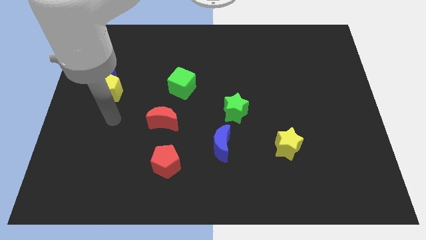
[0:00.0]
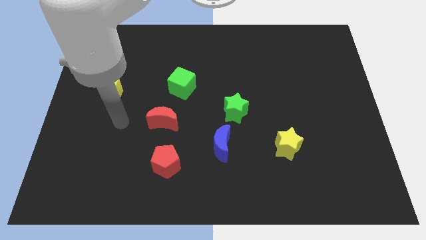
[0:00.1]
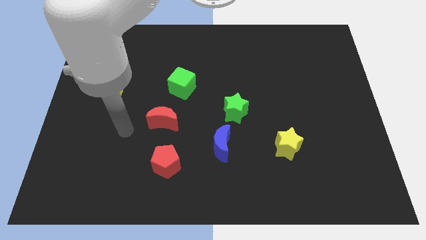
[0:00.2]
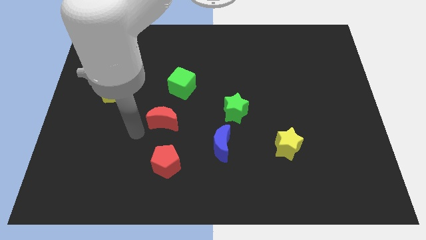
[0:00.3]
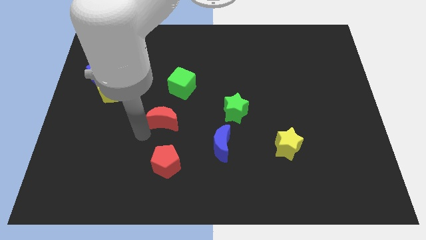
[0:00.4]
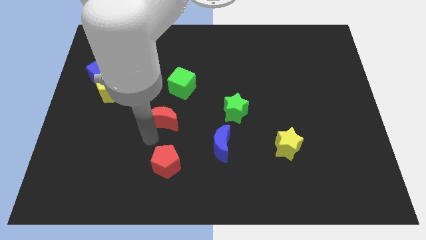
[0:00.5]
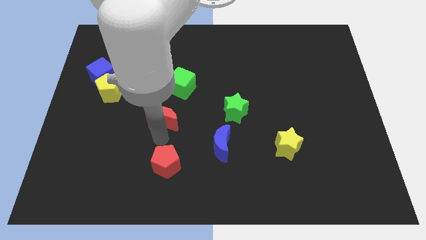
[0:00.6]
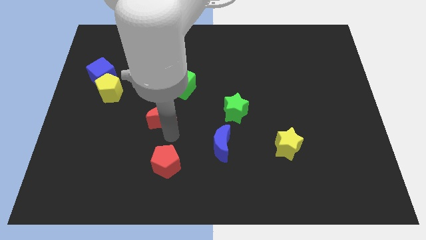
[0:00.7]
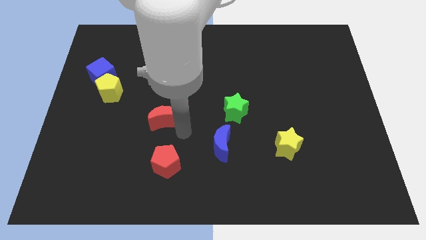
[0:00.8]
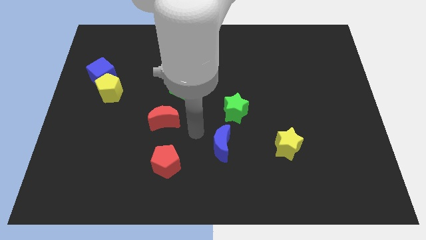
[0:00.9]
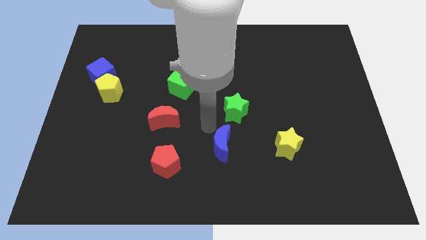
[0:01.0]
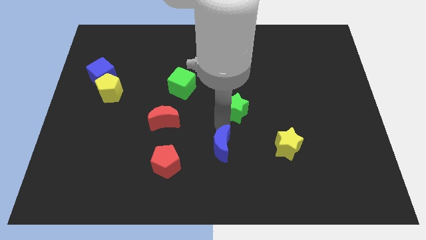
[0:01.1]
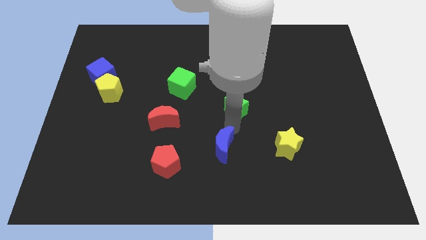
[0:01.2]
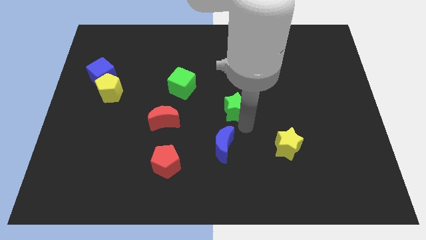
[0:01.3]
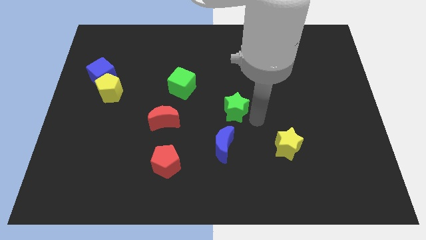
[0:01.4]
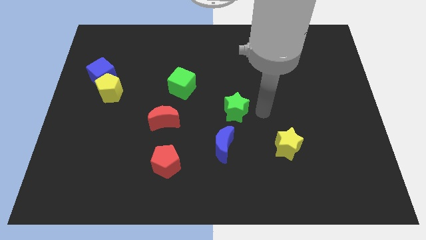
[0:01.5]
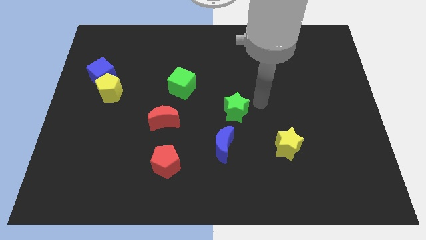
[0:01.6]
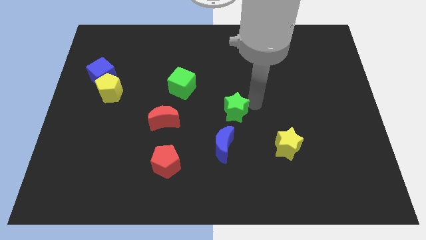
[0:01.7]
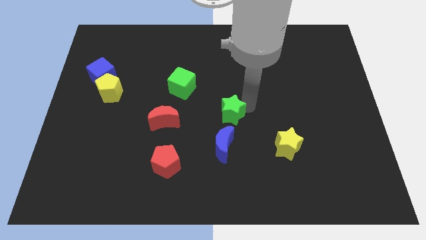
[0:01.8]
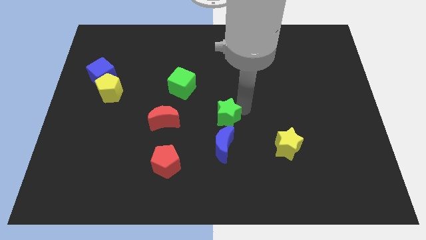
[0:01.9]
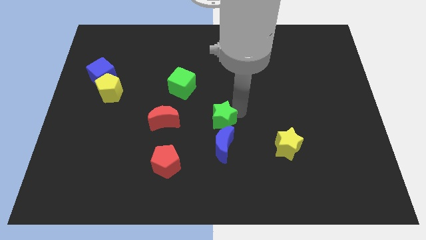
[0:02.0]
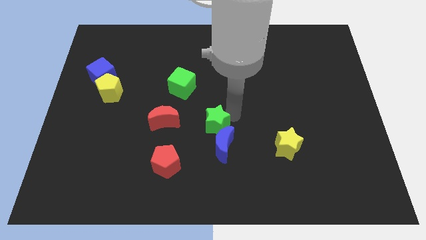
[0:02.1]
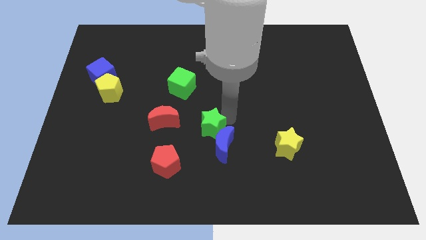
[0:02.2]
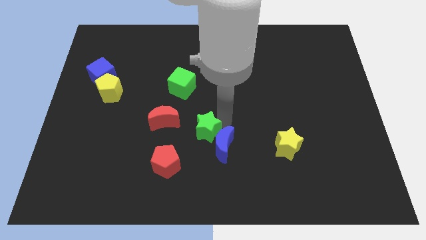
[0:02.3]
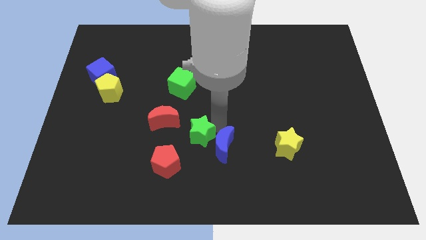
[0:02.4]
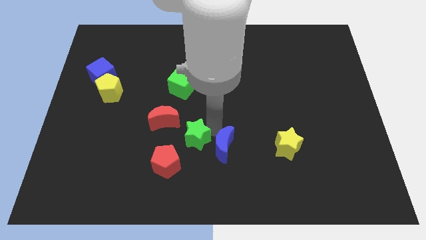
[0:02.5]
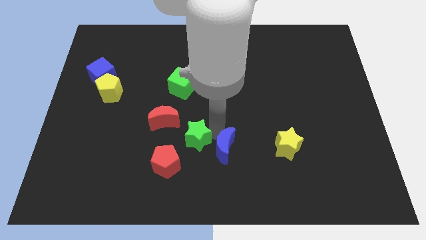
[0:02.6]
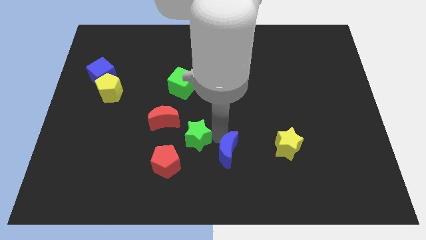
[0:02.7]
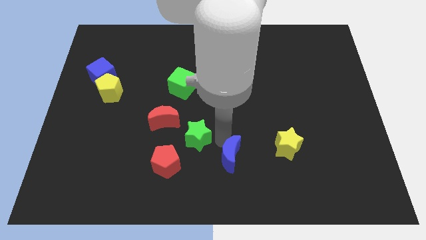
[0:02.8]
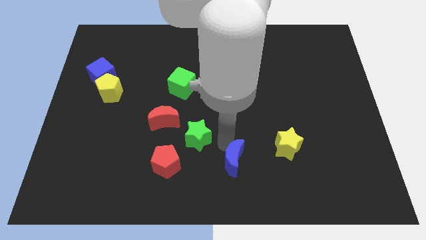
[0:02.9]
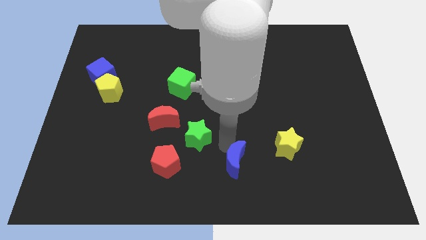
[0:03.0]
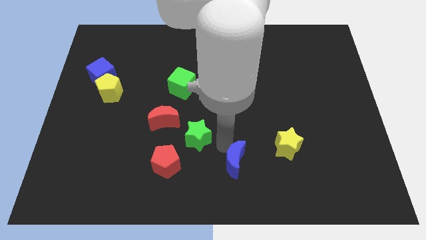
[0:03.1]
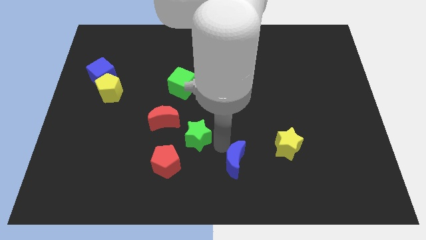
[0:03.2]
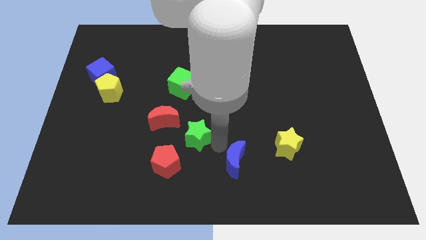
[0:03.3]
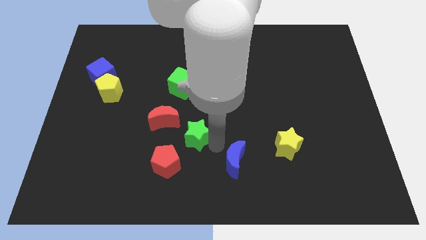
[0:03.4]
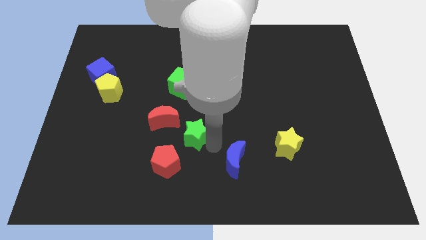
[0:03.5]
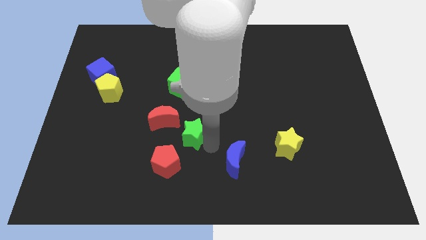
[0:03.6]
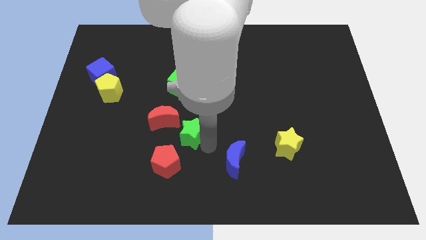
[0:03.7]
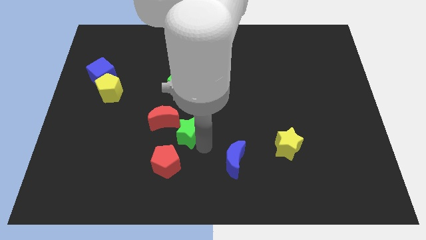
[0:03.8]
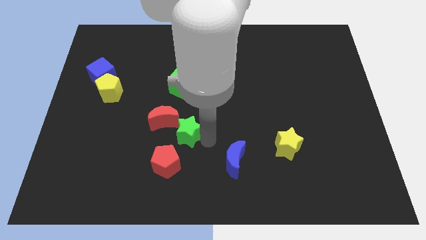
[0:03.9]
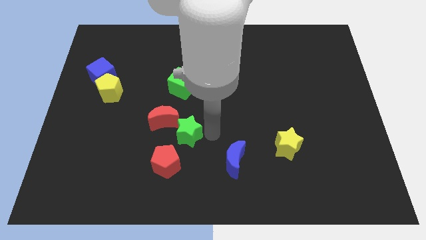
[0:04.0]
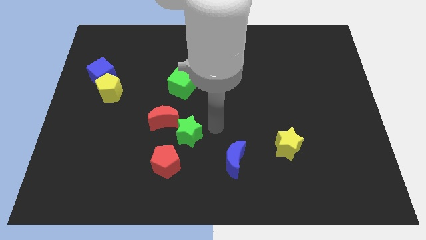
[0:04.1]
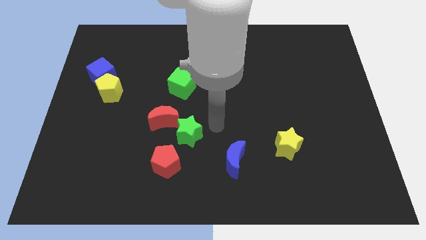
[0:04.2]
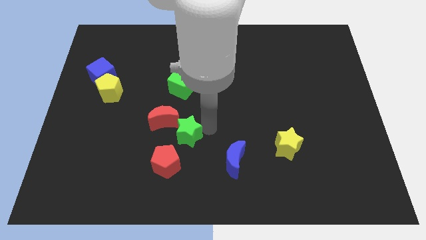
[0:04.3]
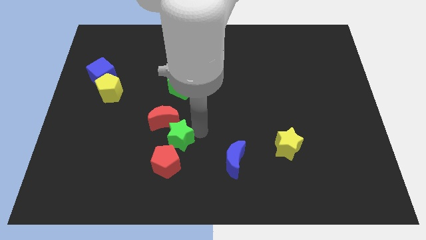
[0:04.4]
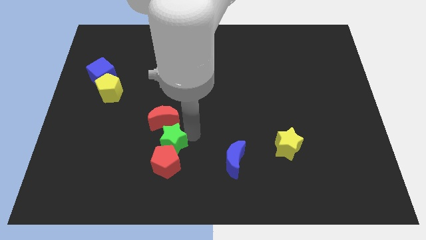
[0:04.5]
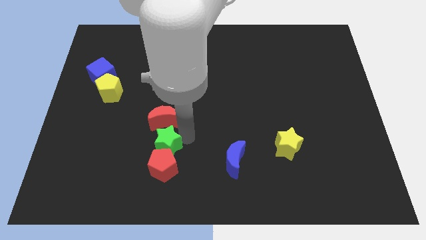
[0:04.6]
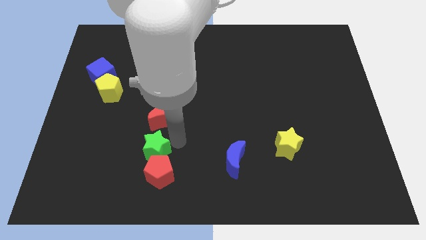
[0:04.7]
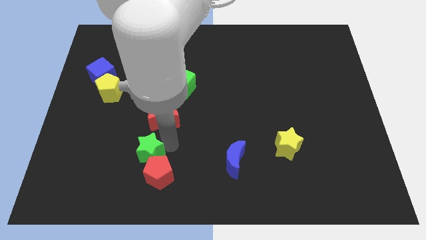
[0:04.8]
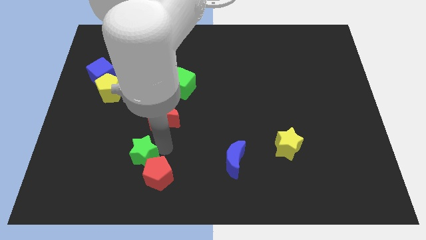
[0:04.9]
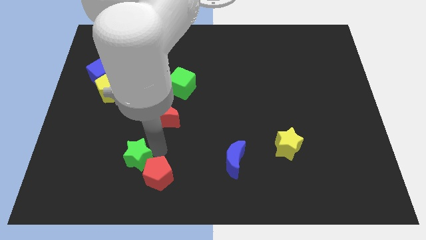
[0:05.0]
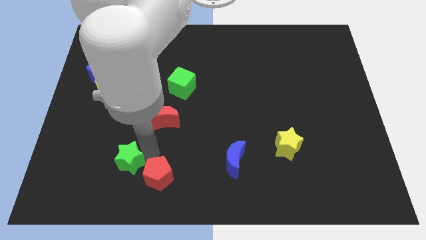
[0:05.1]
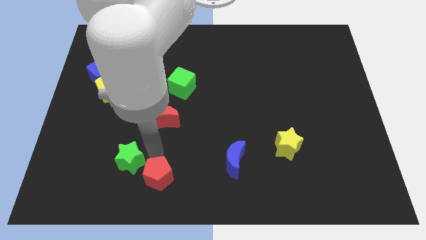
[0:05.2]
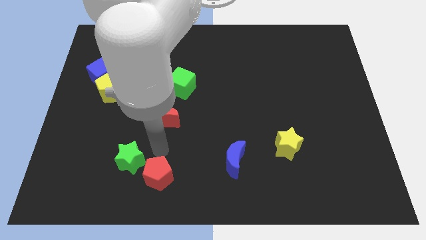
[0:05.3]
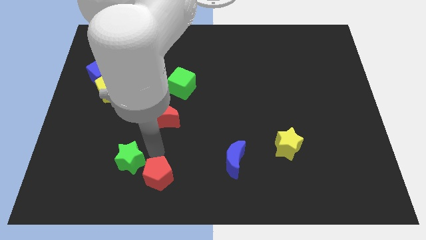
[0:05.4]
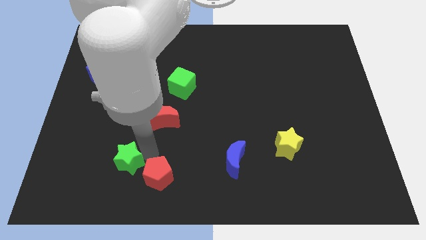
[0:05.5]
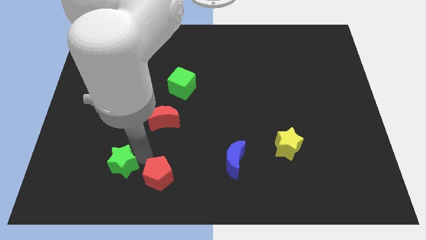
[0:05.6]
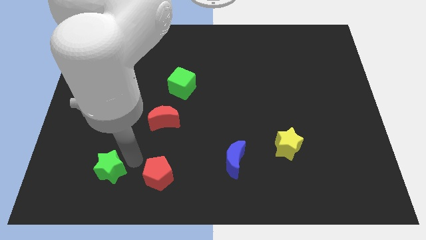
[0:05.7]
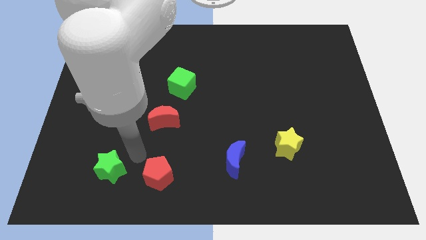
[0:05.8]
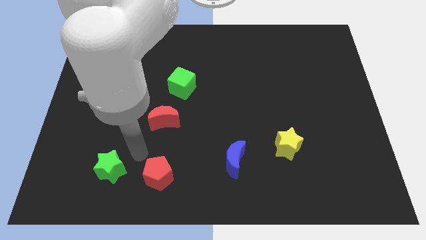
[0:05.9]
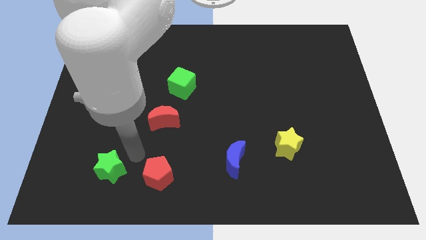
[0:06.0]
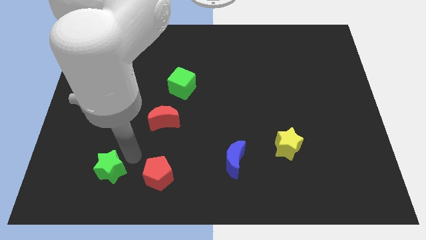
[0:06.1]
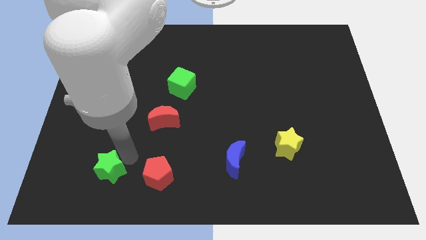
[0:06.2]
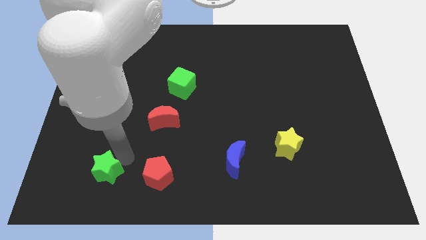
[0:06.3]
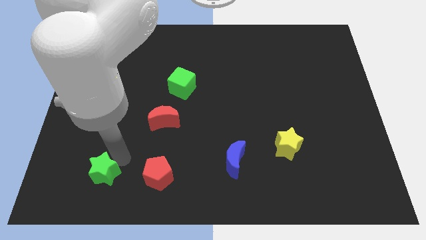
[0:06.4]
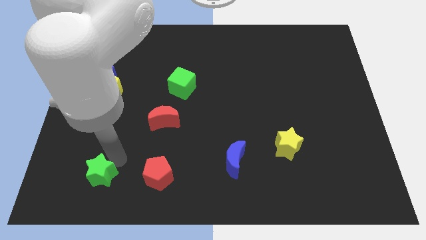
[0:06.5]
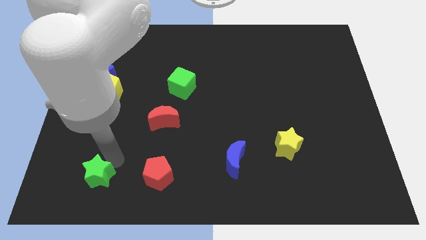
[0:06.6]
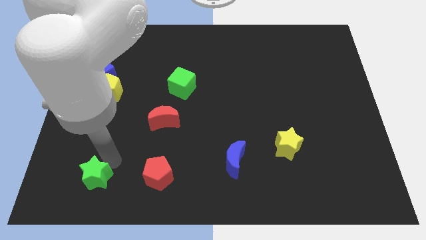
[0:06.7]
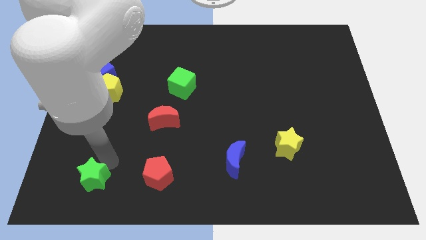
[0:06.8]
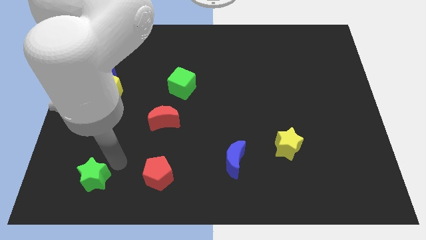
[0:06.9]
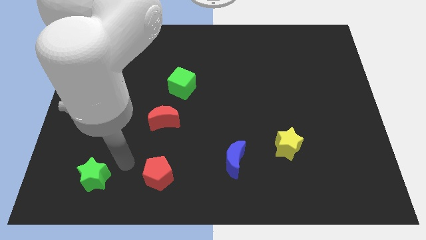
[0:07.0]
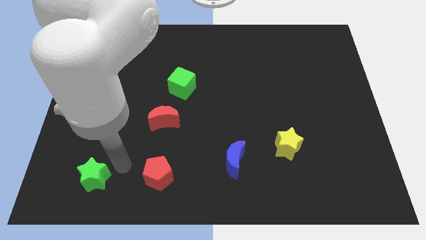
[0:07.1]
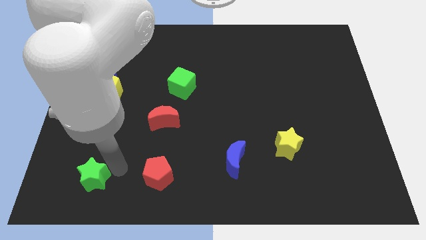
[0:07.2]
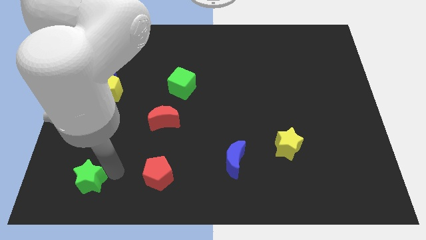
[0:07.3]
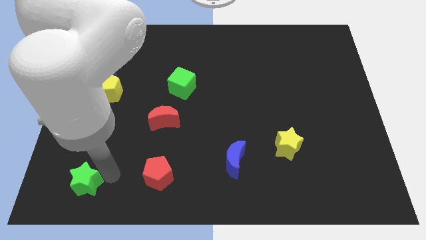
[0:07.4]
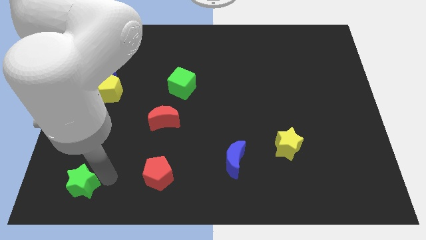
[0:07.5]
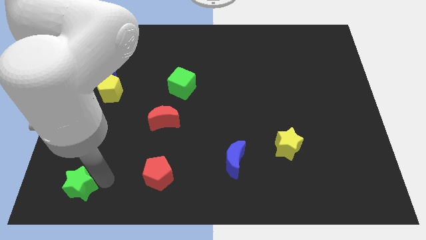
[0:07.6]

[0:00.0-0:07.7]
move the green star to the lower left corner
